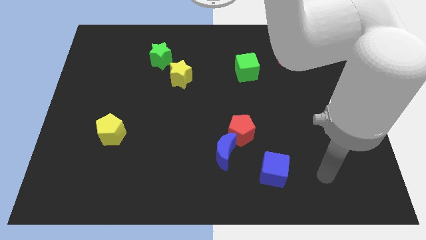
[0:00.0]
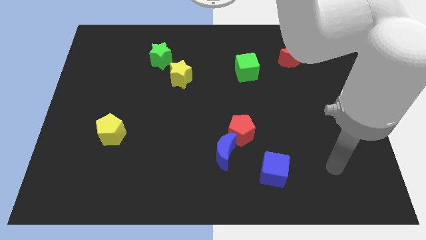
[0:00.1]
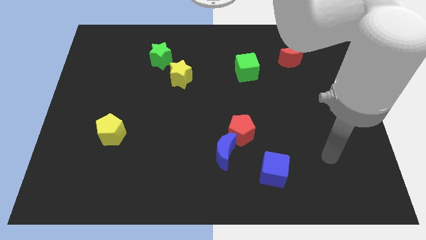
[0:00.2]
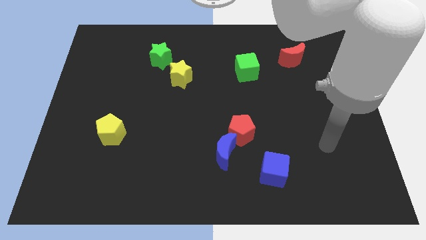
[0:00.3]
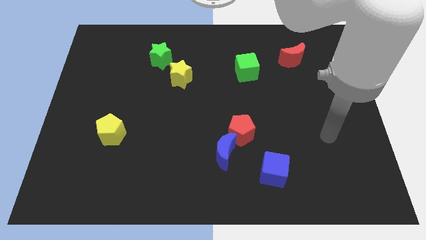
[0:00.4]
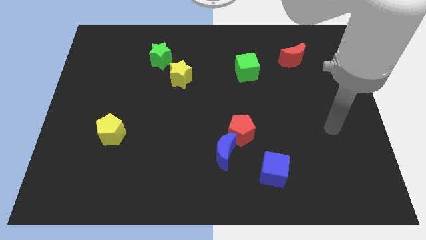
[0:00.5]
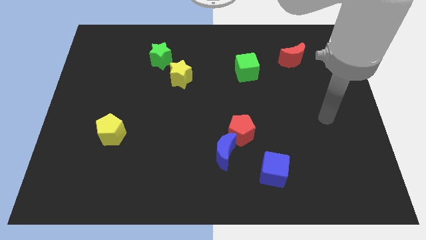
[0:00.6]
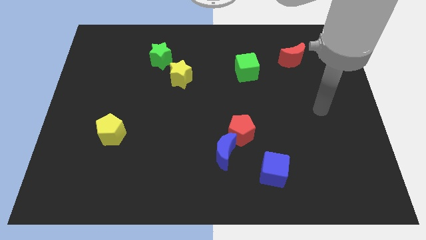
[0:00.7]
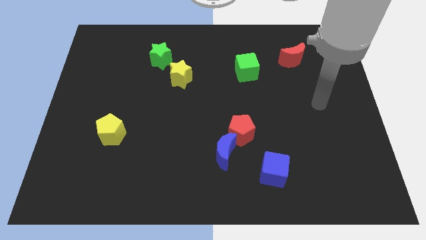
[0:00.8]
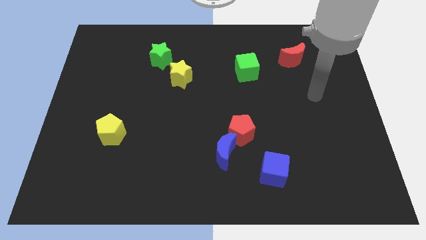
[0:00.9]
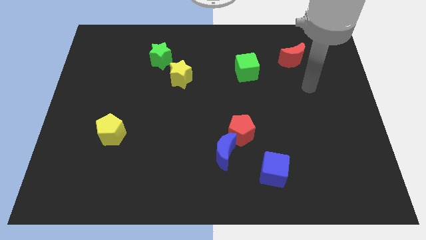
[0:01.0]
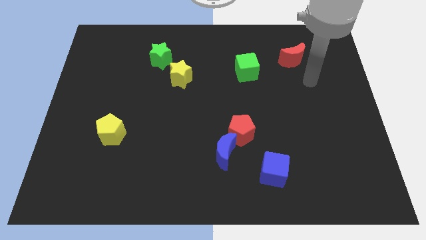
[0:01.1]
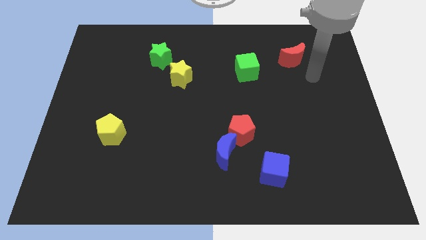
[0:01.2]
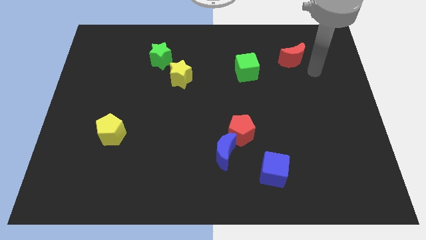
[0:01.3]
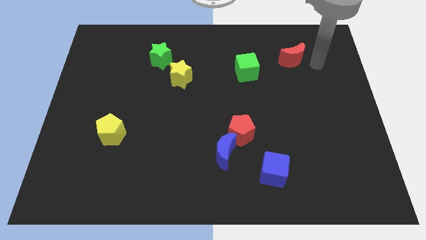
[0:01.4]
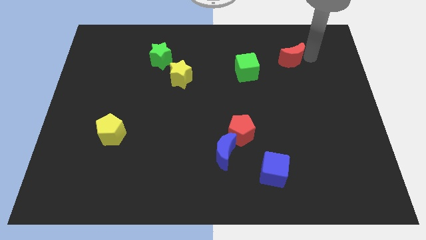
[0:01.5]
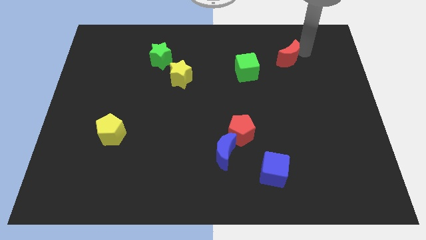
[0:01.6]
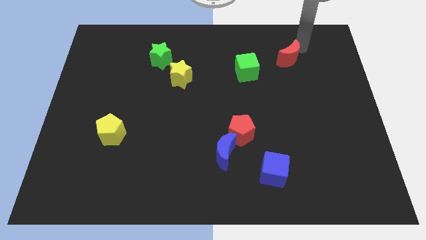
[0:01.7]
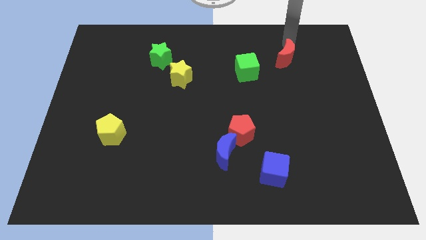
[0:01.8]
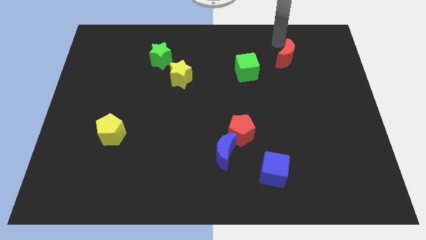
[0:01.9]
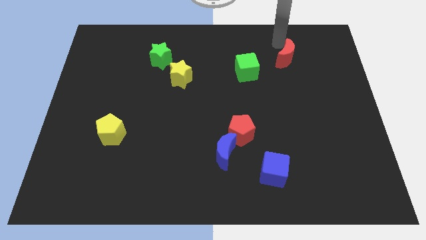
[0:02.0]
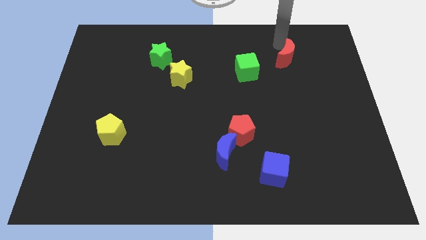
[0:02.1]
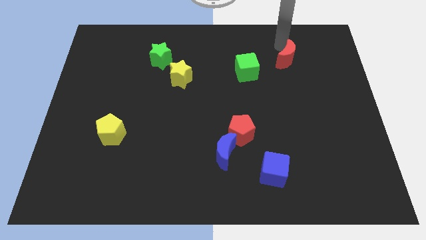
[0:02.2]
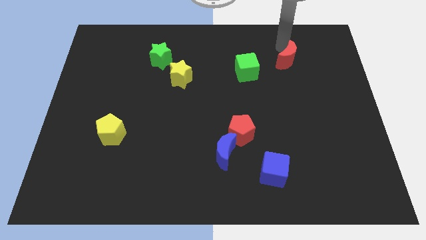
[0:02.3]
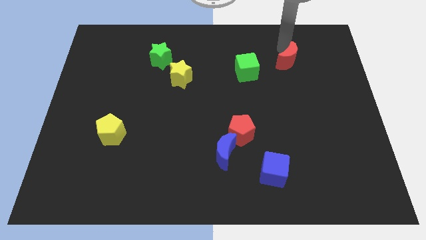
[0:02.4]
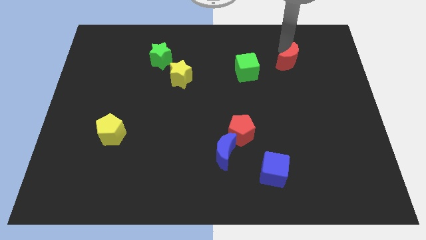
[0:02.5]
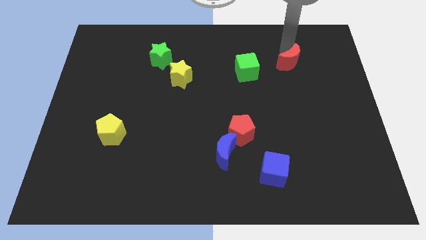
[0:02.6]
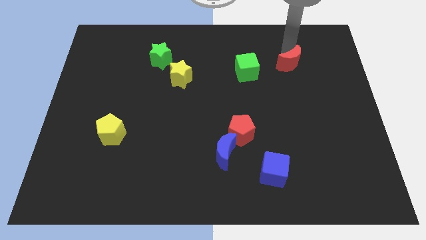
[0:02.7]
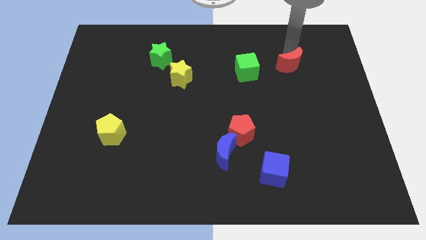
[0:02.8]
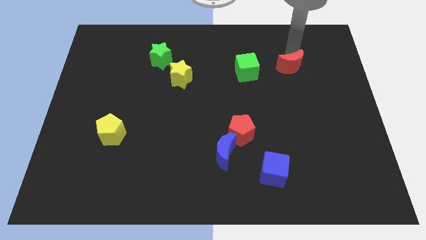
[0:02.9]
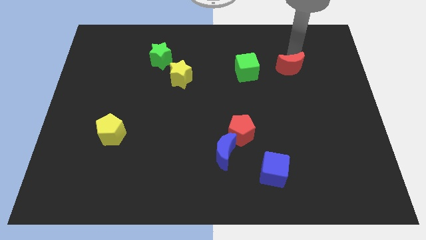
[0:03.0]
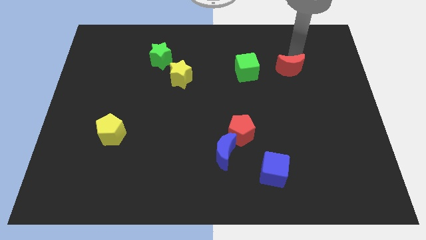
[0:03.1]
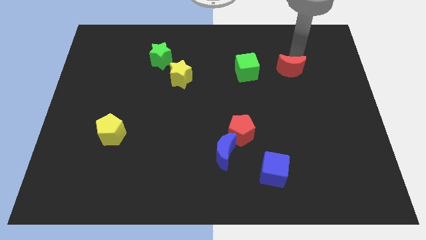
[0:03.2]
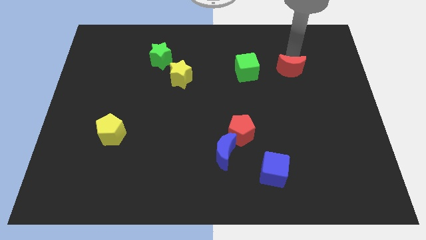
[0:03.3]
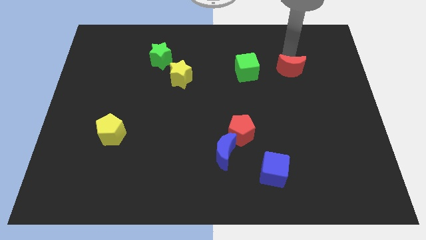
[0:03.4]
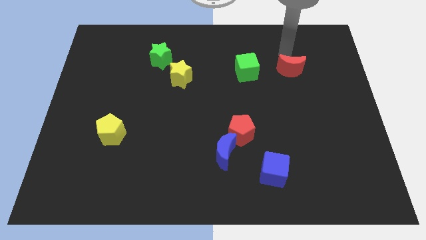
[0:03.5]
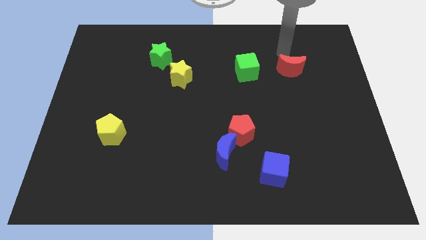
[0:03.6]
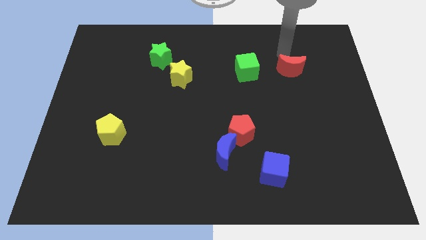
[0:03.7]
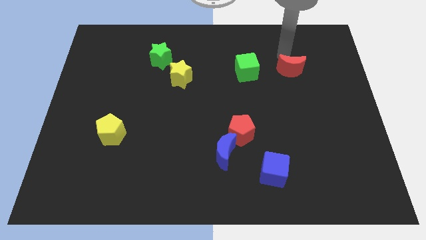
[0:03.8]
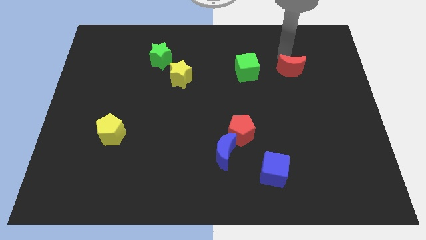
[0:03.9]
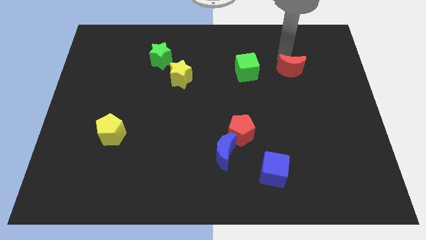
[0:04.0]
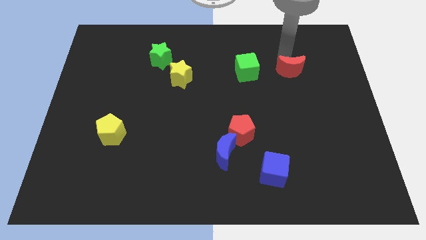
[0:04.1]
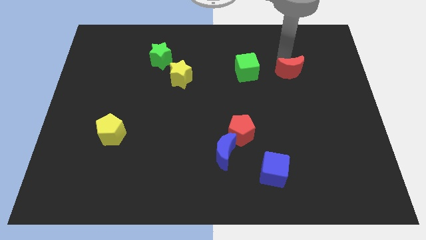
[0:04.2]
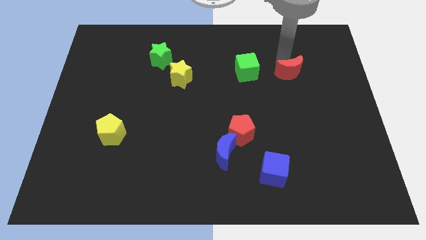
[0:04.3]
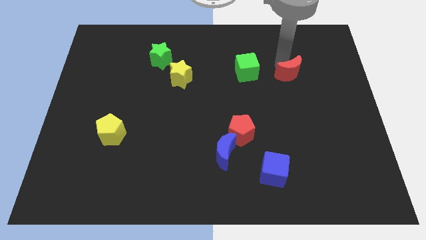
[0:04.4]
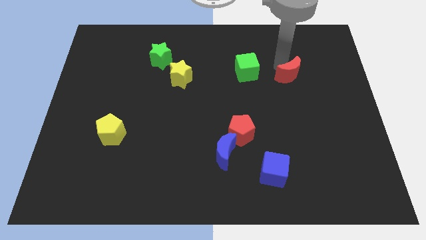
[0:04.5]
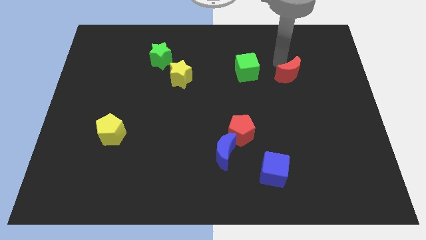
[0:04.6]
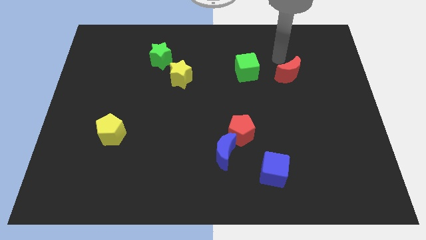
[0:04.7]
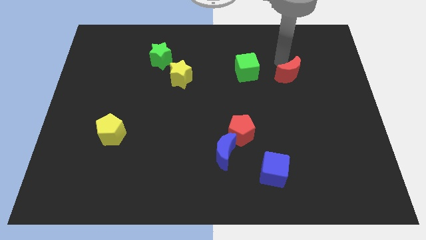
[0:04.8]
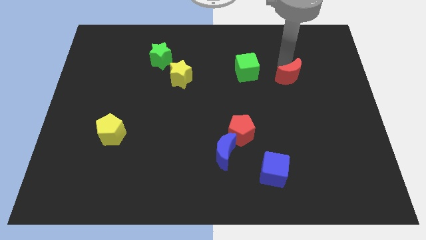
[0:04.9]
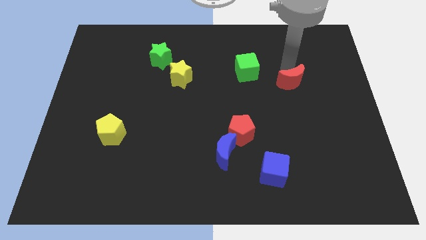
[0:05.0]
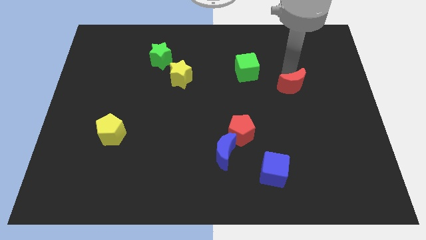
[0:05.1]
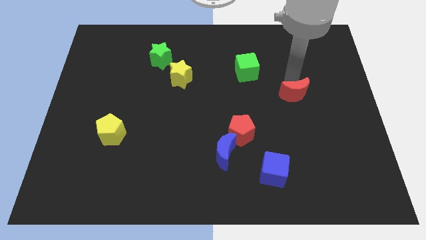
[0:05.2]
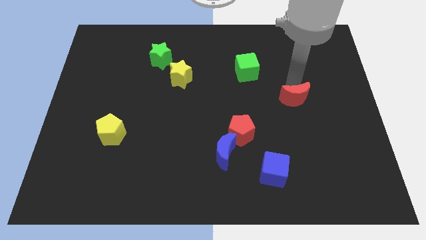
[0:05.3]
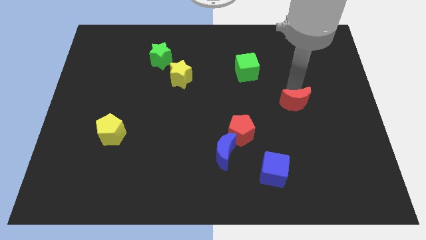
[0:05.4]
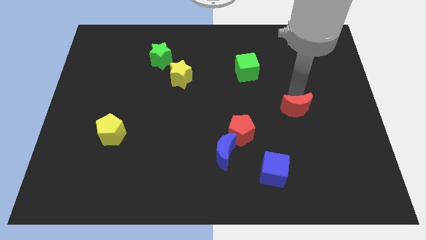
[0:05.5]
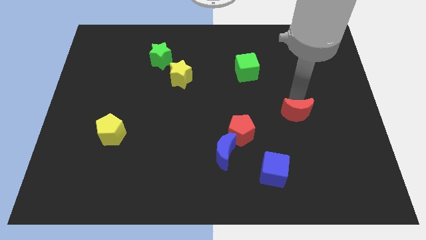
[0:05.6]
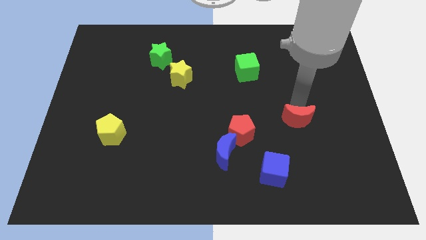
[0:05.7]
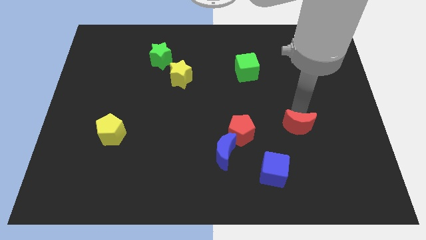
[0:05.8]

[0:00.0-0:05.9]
move the red moon down

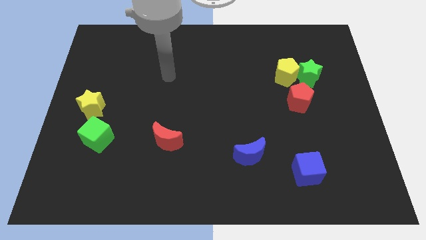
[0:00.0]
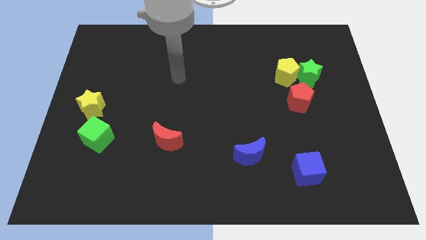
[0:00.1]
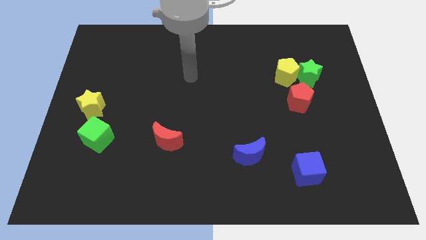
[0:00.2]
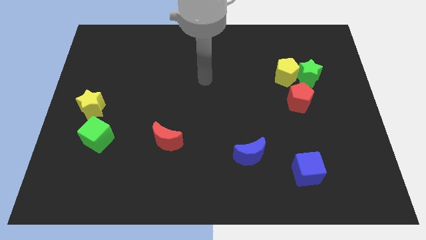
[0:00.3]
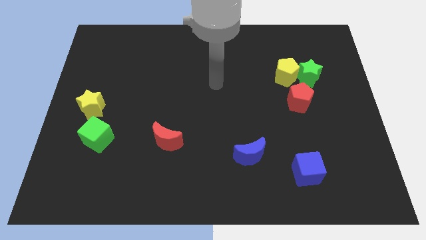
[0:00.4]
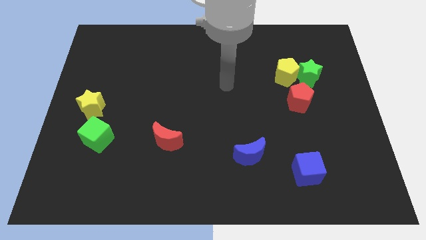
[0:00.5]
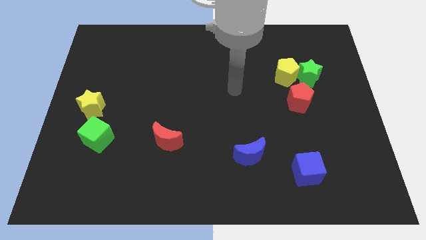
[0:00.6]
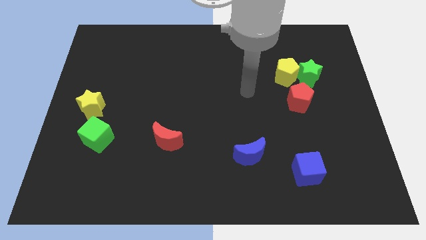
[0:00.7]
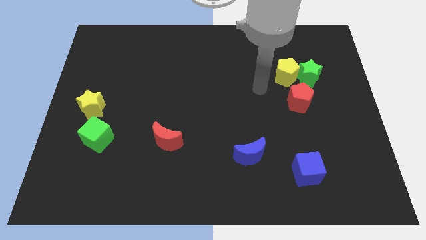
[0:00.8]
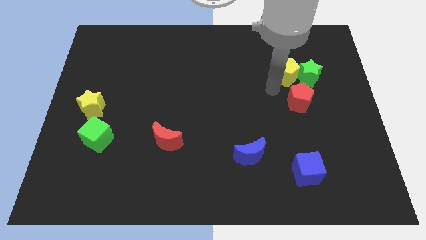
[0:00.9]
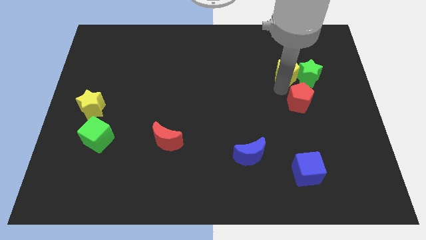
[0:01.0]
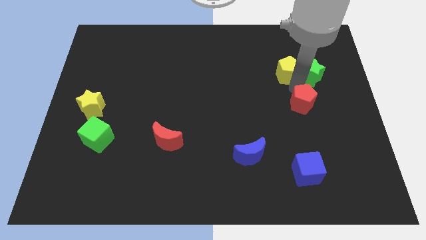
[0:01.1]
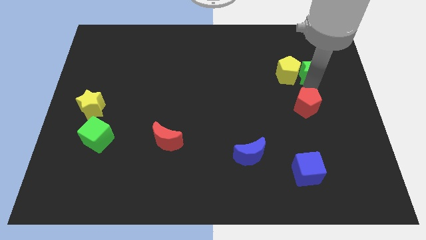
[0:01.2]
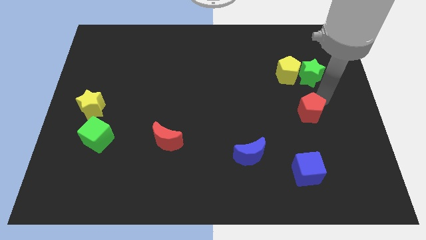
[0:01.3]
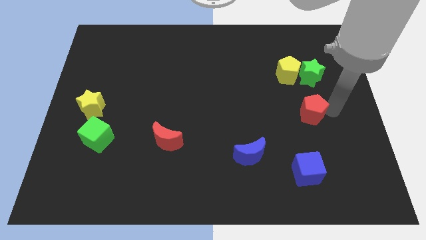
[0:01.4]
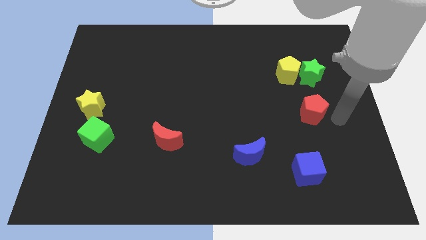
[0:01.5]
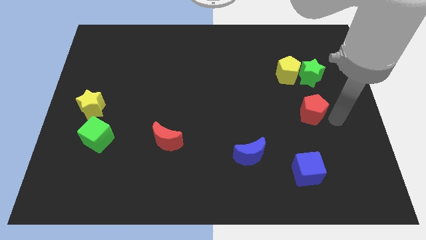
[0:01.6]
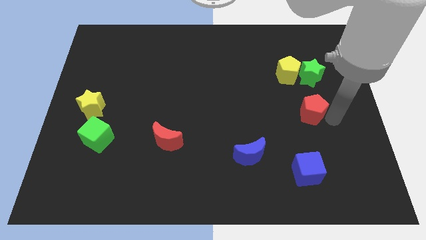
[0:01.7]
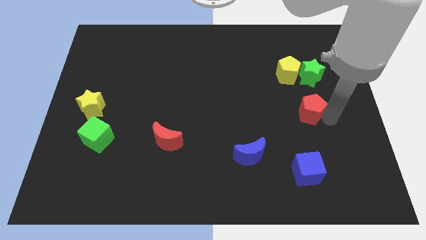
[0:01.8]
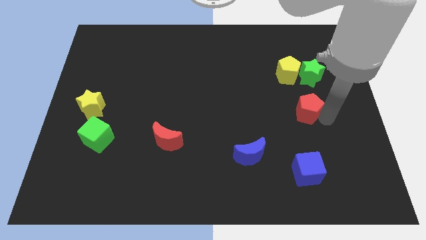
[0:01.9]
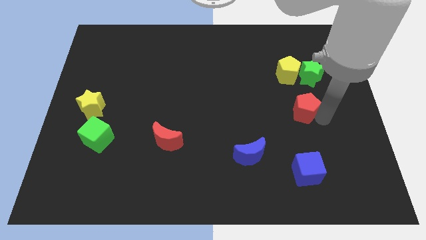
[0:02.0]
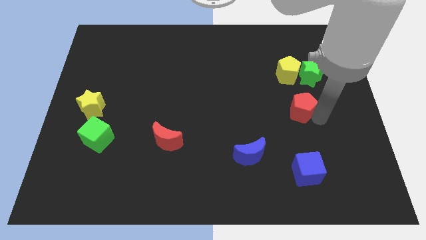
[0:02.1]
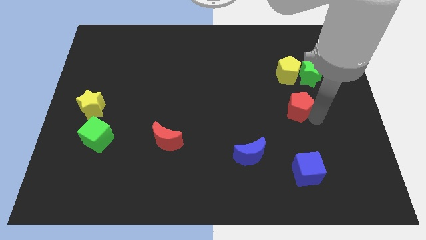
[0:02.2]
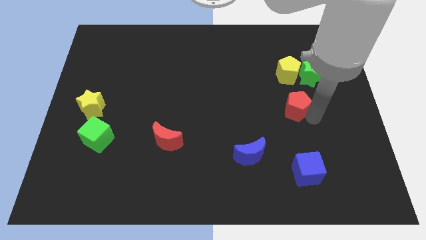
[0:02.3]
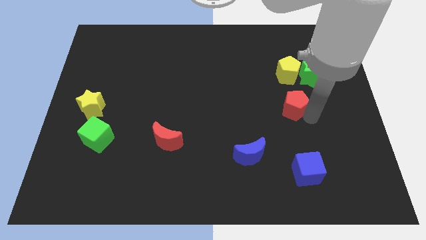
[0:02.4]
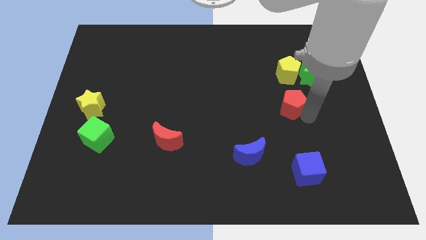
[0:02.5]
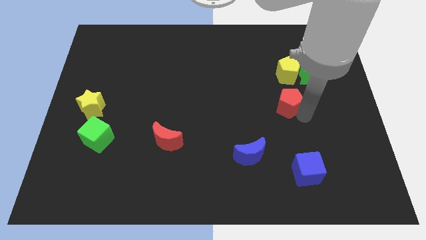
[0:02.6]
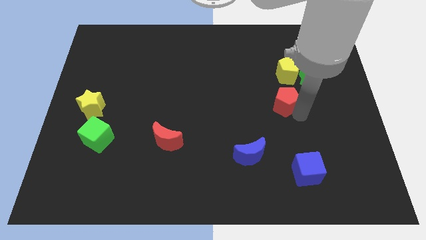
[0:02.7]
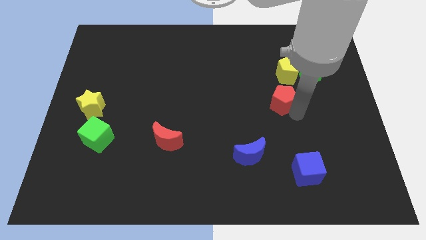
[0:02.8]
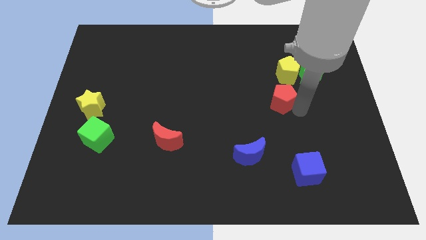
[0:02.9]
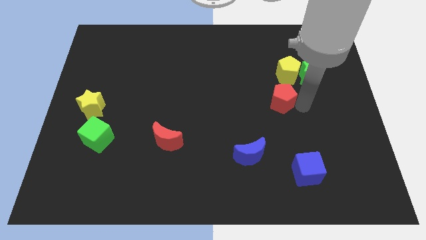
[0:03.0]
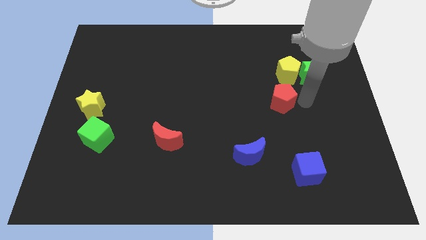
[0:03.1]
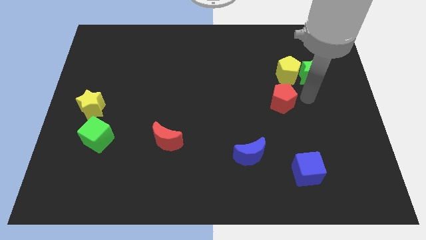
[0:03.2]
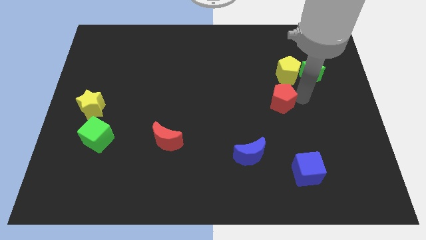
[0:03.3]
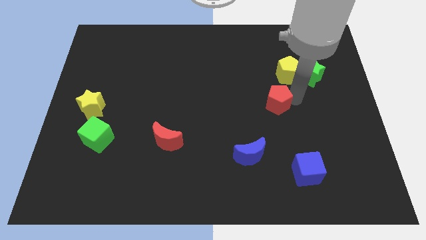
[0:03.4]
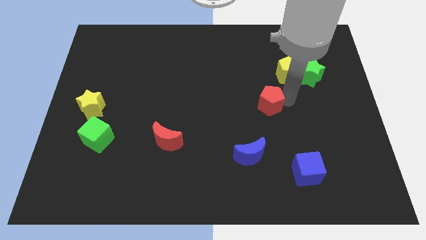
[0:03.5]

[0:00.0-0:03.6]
slide the red pentagon slightly to the left
